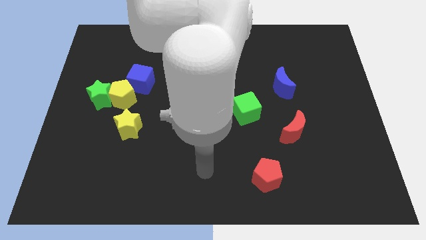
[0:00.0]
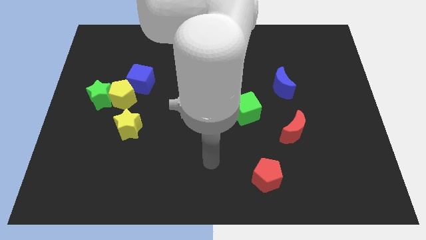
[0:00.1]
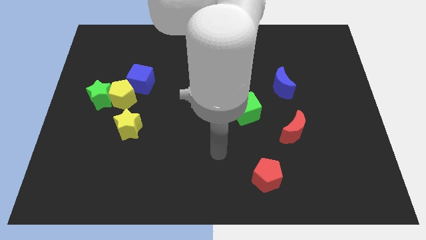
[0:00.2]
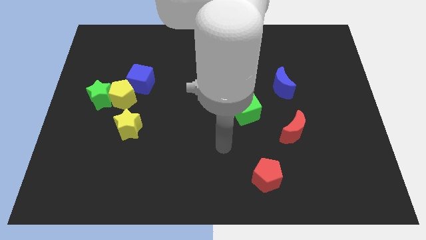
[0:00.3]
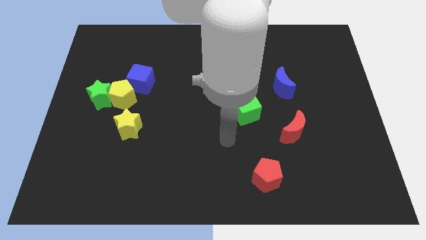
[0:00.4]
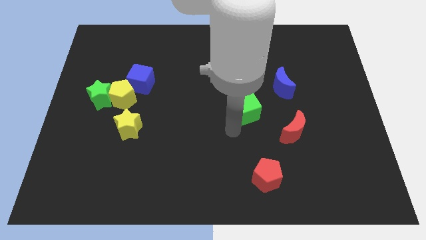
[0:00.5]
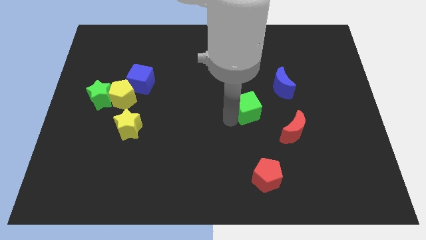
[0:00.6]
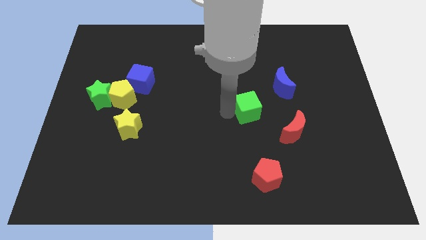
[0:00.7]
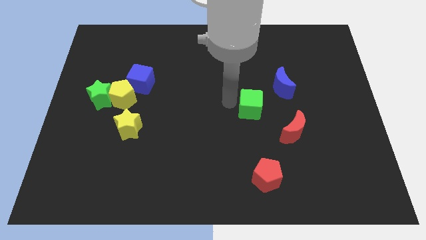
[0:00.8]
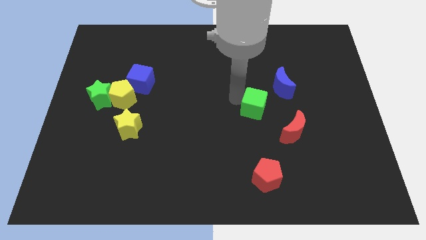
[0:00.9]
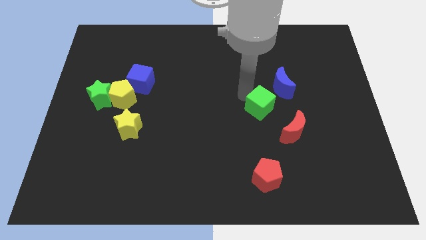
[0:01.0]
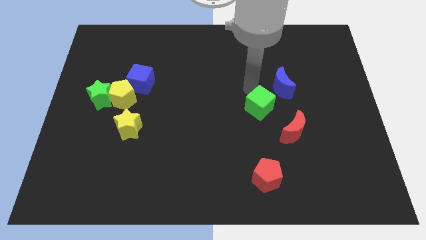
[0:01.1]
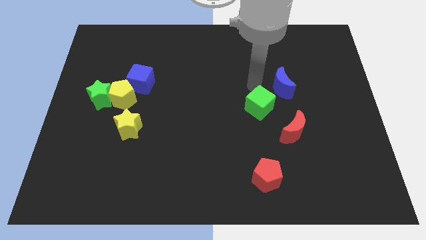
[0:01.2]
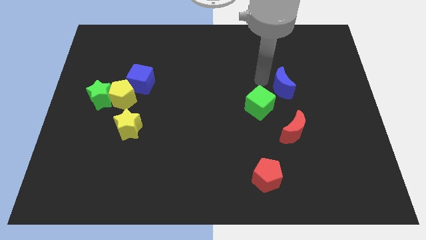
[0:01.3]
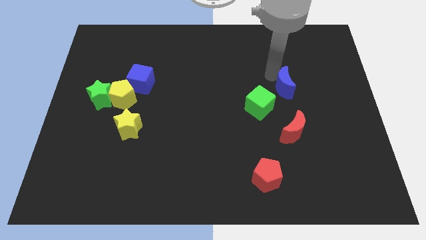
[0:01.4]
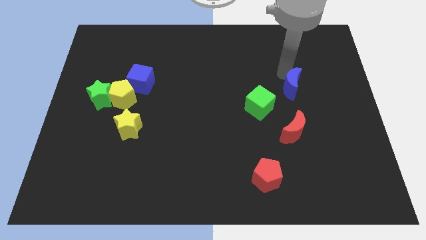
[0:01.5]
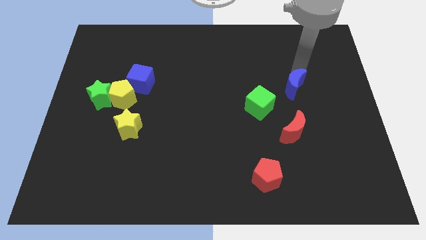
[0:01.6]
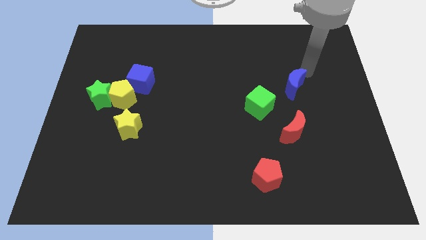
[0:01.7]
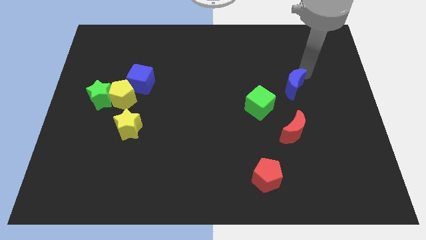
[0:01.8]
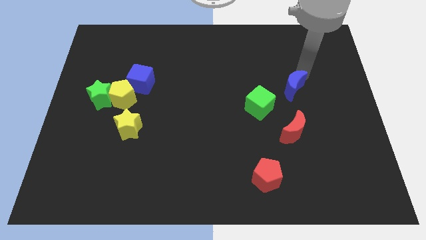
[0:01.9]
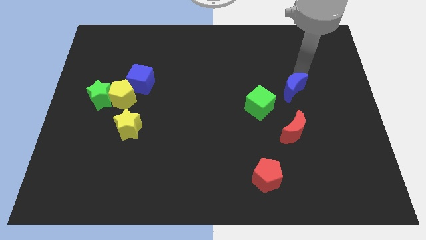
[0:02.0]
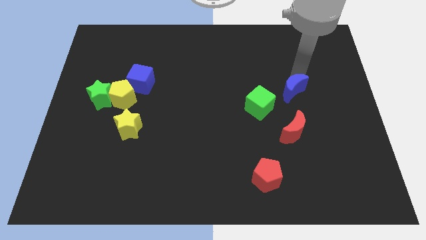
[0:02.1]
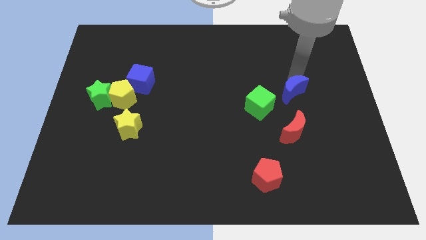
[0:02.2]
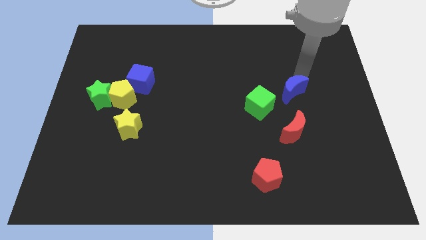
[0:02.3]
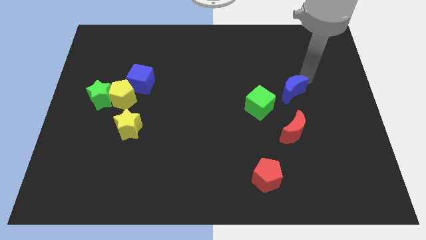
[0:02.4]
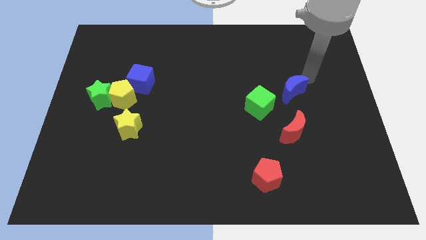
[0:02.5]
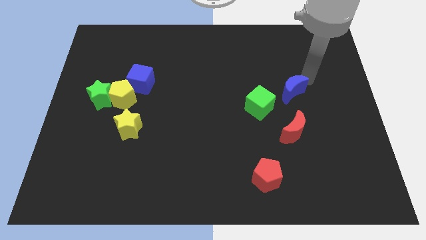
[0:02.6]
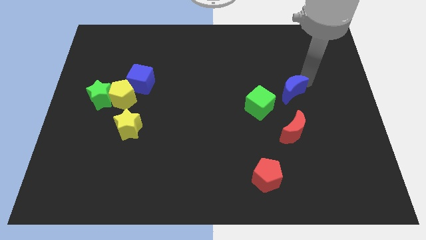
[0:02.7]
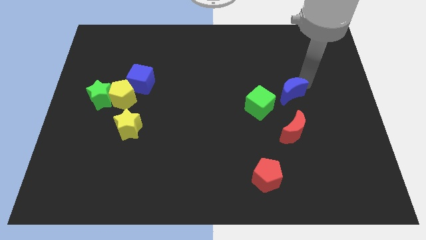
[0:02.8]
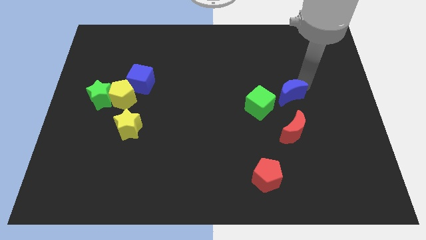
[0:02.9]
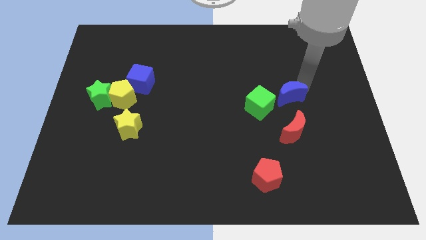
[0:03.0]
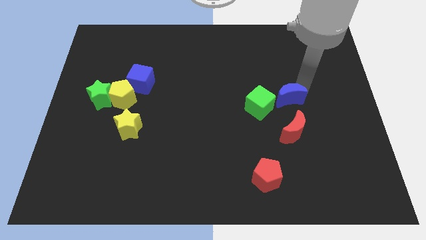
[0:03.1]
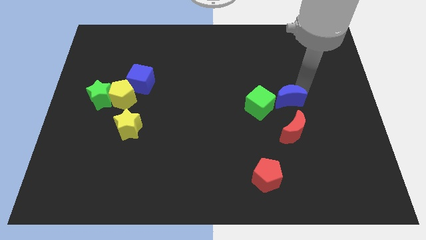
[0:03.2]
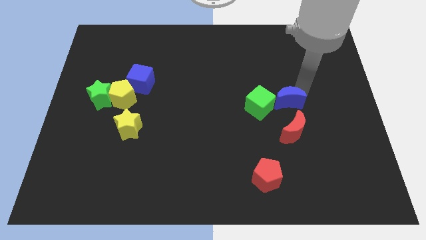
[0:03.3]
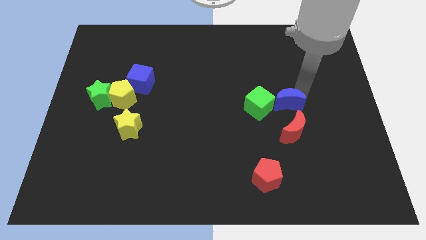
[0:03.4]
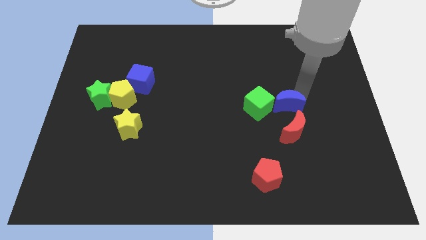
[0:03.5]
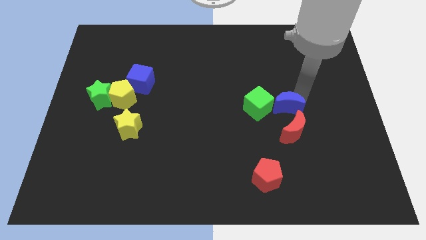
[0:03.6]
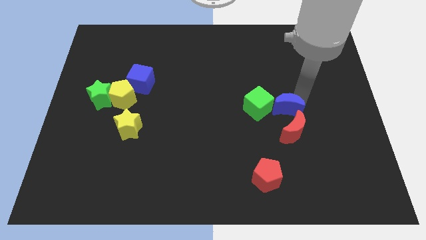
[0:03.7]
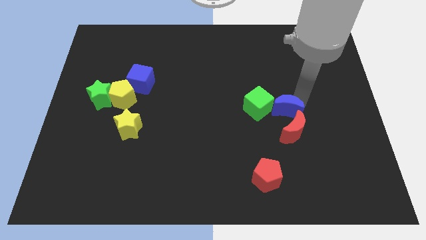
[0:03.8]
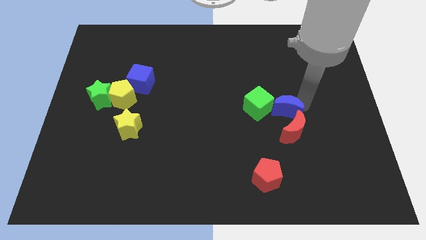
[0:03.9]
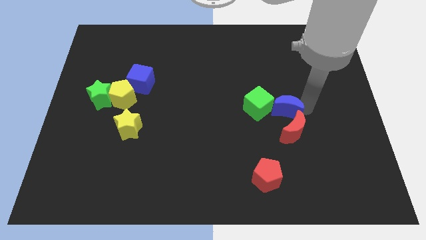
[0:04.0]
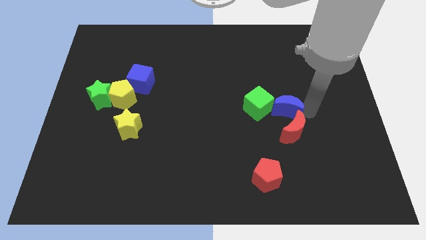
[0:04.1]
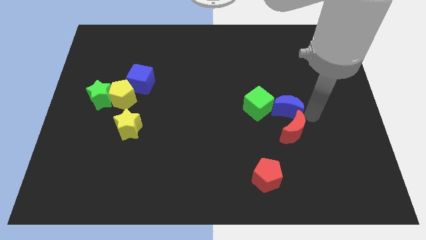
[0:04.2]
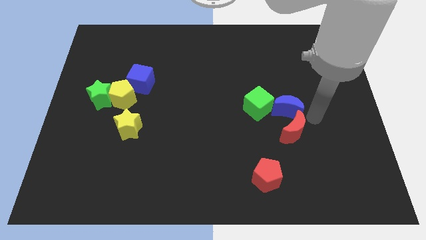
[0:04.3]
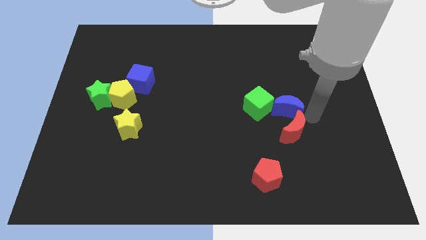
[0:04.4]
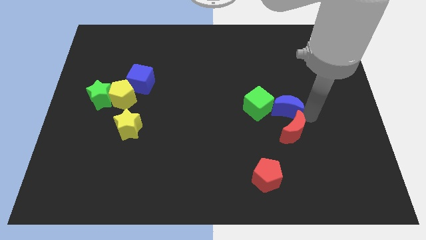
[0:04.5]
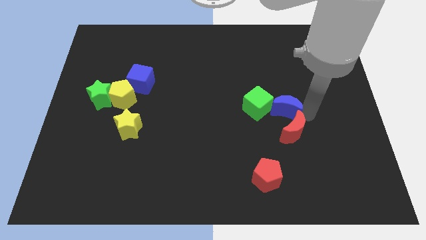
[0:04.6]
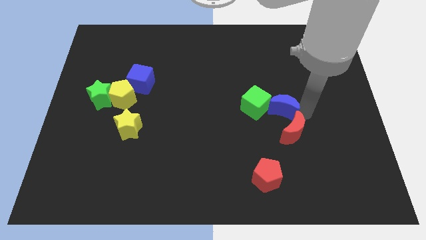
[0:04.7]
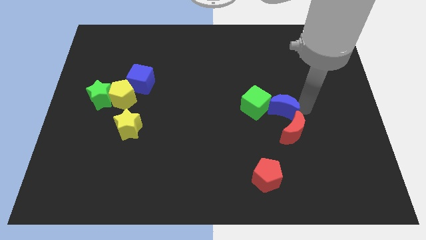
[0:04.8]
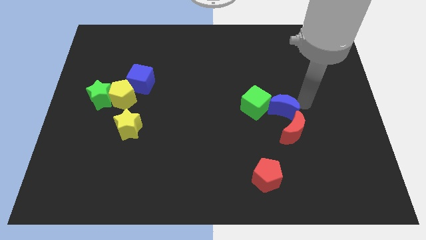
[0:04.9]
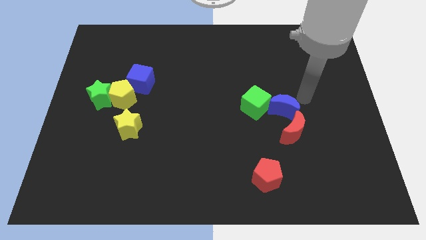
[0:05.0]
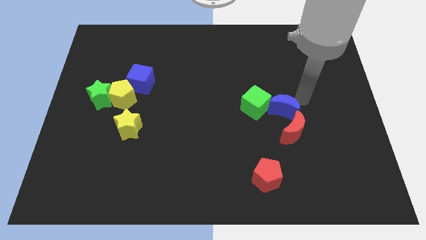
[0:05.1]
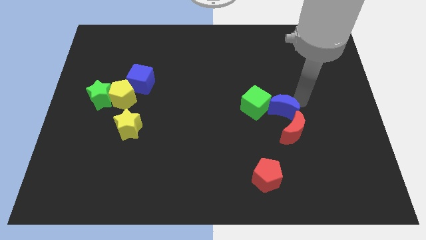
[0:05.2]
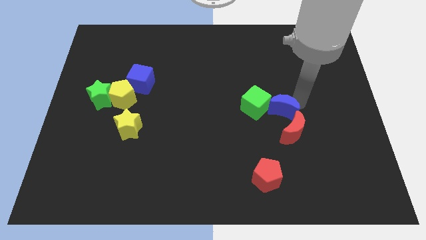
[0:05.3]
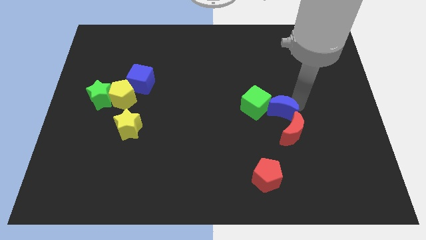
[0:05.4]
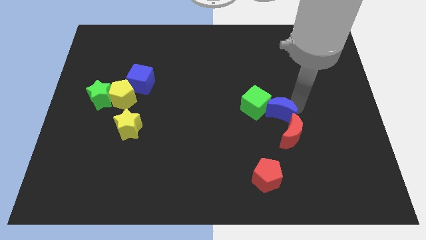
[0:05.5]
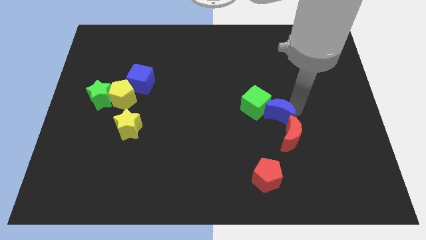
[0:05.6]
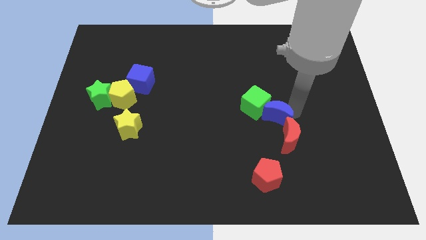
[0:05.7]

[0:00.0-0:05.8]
push the blue moon downwards and to the left a bit

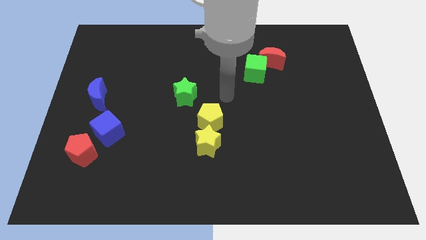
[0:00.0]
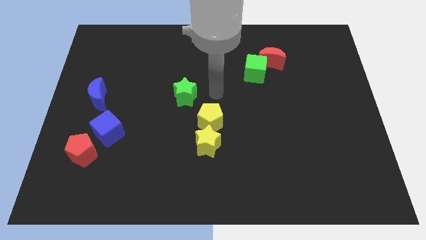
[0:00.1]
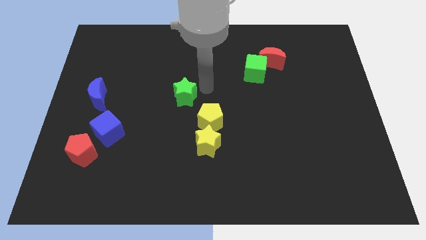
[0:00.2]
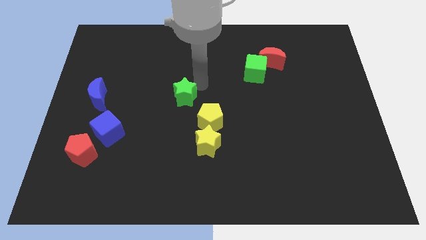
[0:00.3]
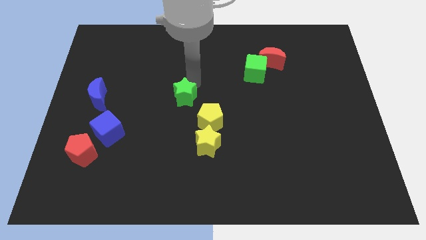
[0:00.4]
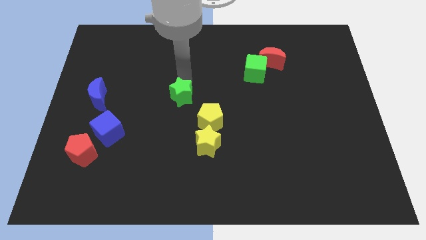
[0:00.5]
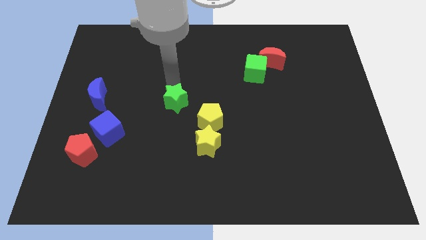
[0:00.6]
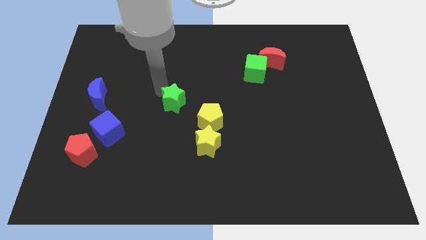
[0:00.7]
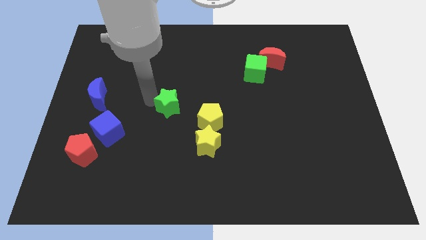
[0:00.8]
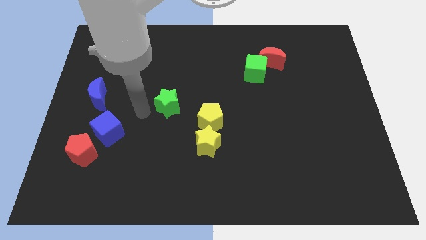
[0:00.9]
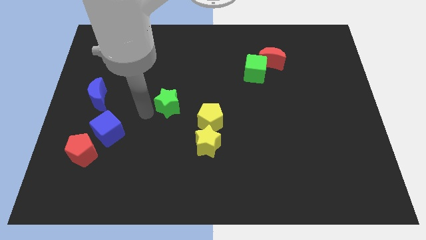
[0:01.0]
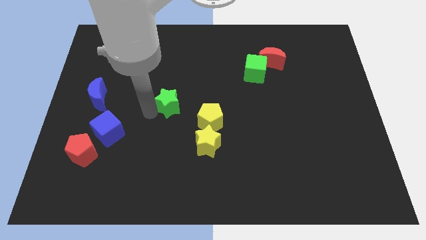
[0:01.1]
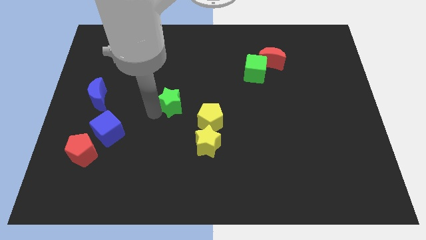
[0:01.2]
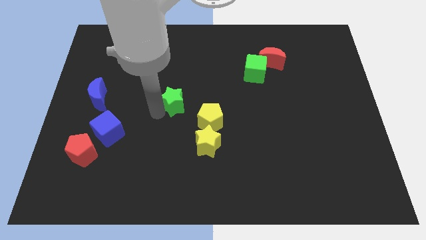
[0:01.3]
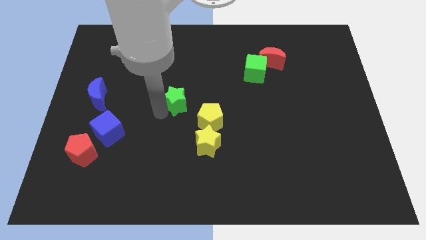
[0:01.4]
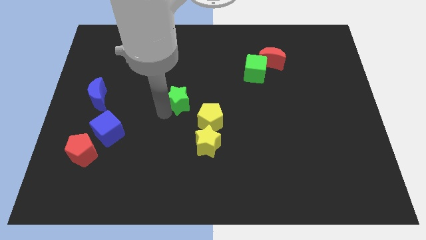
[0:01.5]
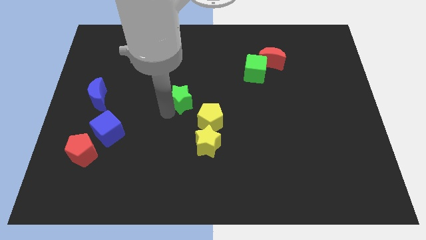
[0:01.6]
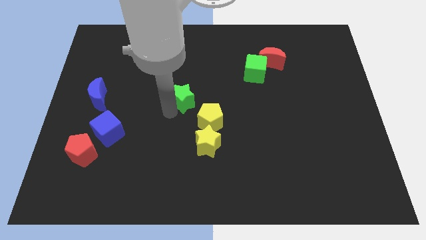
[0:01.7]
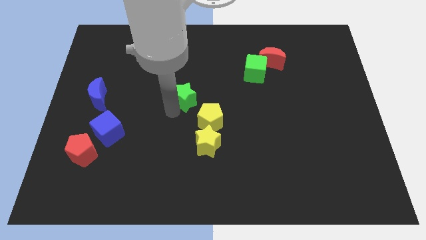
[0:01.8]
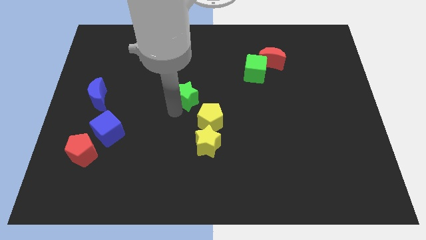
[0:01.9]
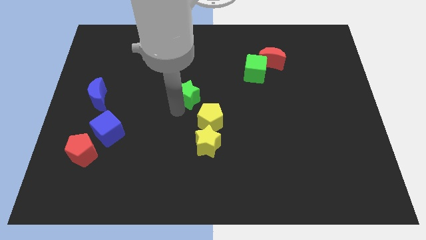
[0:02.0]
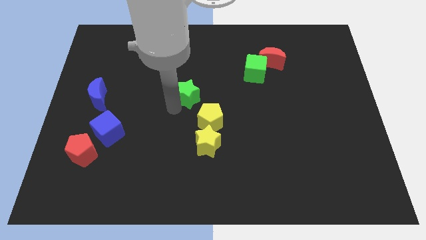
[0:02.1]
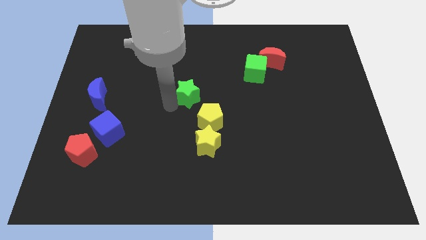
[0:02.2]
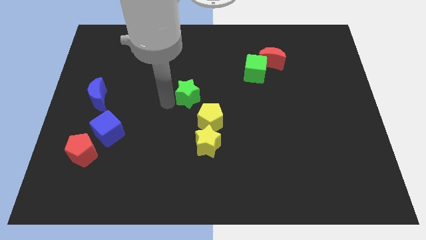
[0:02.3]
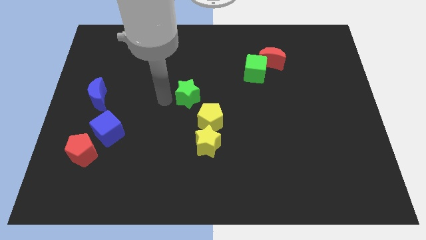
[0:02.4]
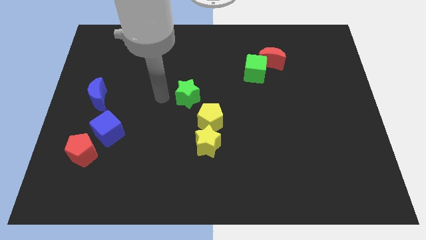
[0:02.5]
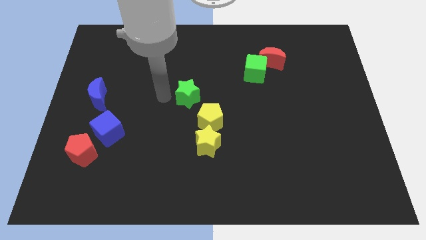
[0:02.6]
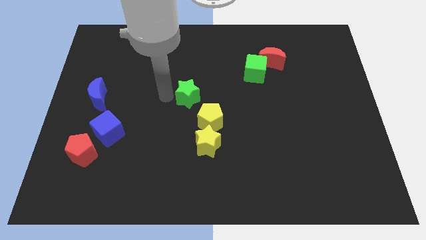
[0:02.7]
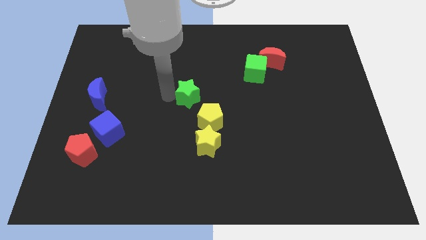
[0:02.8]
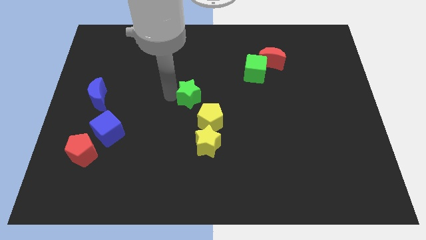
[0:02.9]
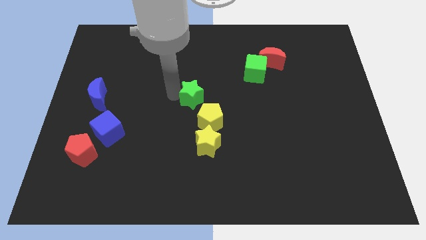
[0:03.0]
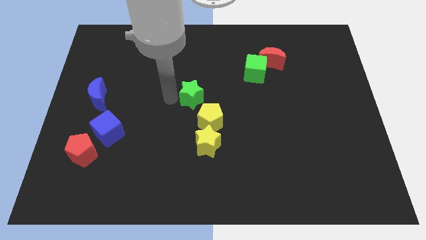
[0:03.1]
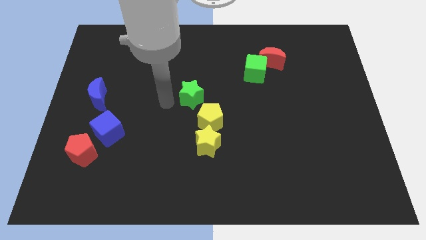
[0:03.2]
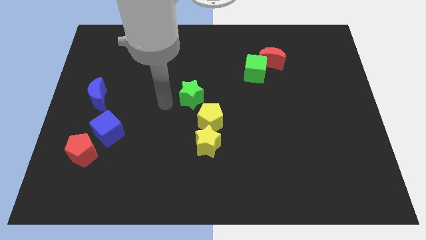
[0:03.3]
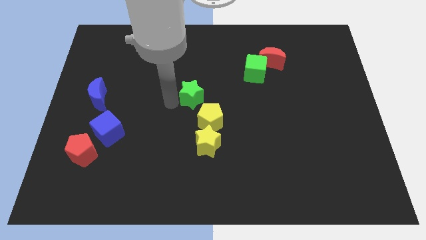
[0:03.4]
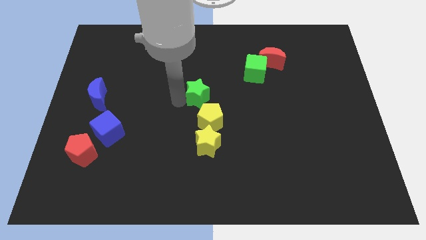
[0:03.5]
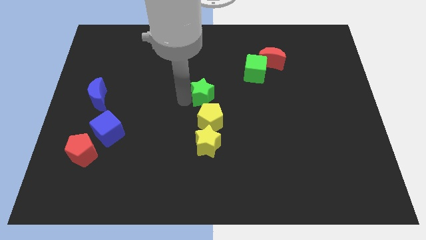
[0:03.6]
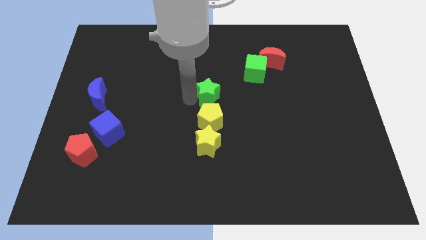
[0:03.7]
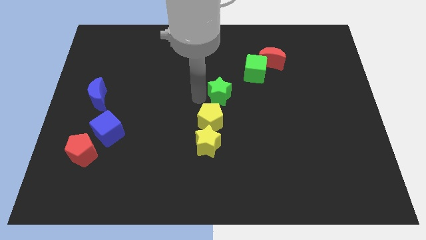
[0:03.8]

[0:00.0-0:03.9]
slide the green star slightly right
